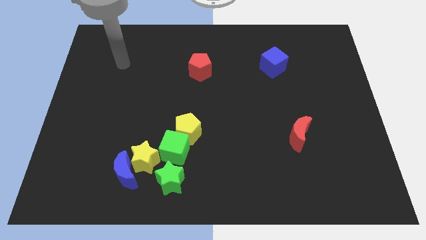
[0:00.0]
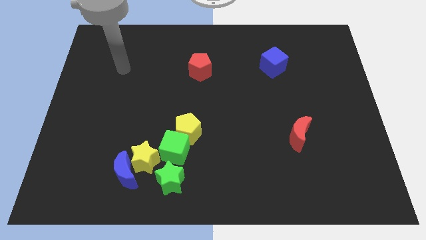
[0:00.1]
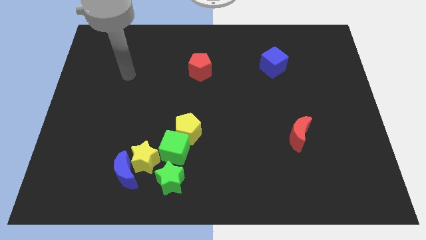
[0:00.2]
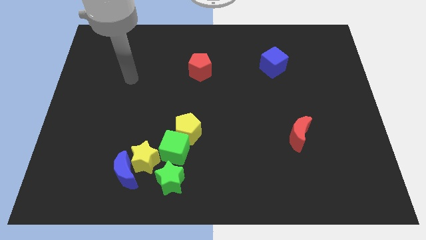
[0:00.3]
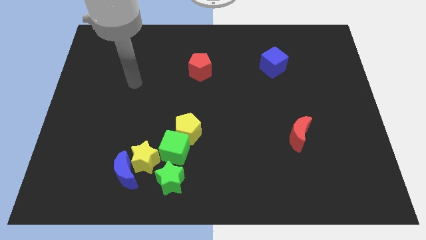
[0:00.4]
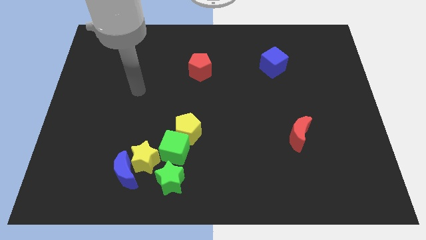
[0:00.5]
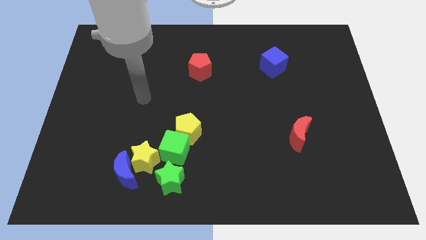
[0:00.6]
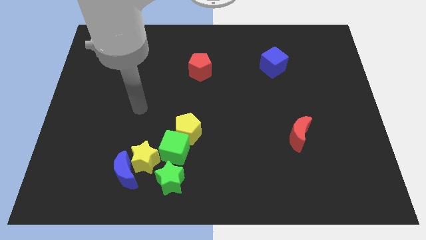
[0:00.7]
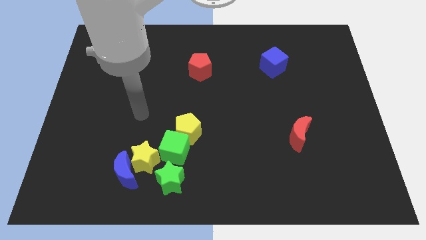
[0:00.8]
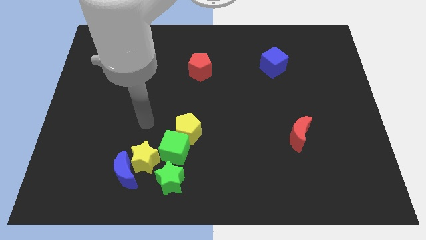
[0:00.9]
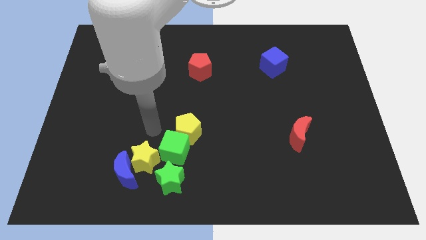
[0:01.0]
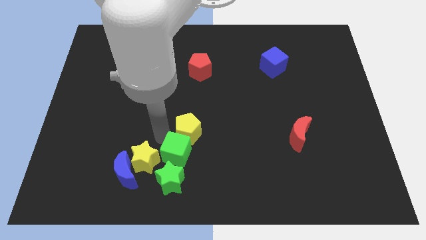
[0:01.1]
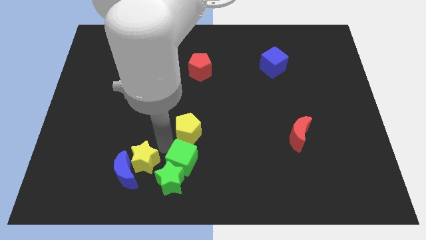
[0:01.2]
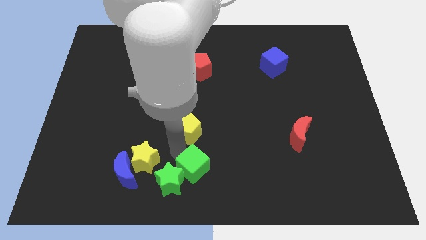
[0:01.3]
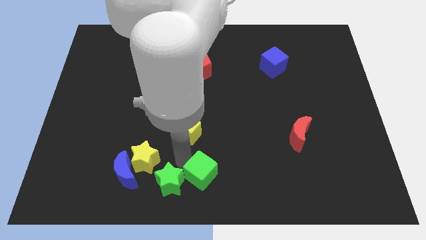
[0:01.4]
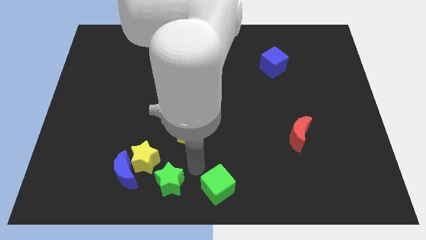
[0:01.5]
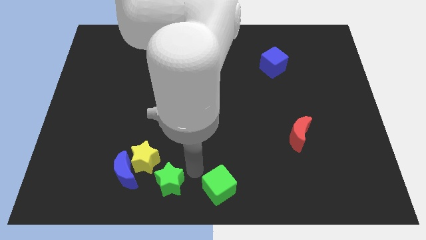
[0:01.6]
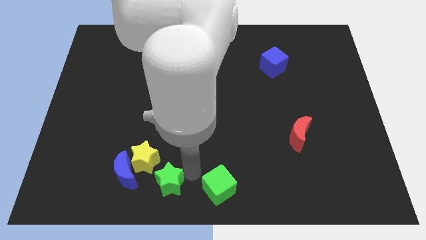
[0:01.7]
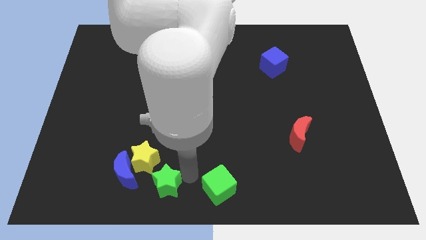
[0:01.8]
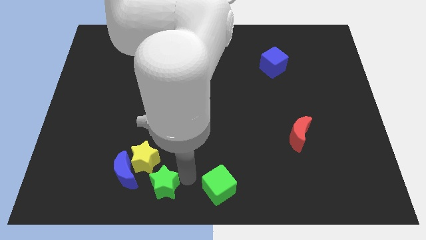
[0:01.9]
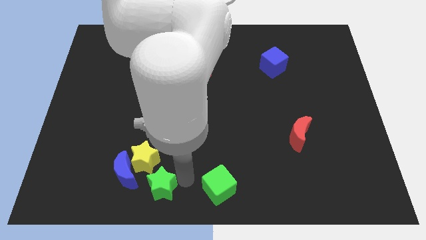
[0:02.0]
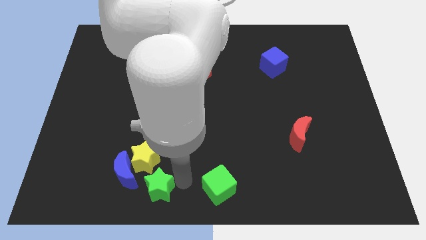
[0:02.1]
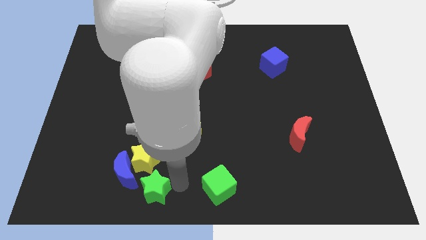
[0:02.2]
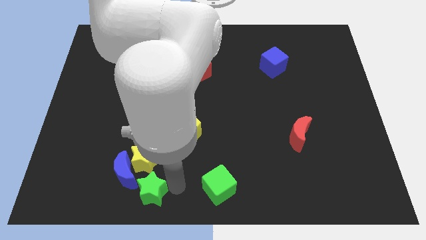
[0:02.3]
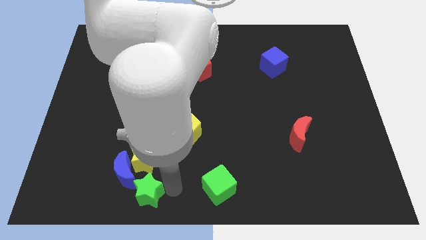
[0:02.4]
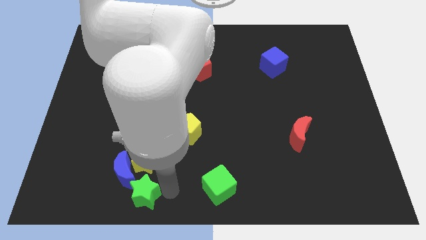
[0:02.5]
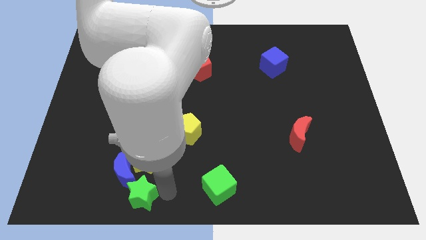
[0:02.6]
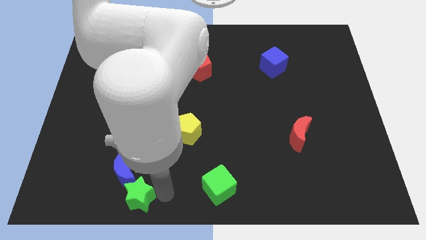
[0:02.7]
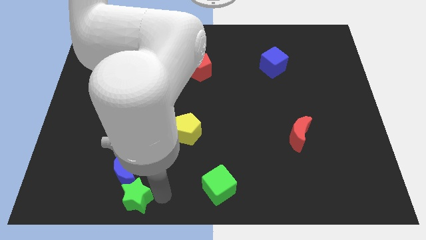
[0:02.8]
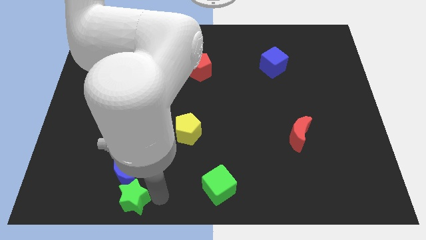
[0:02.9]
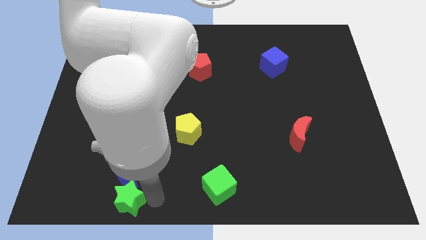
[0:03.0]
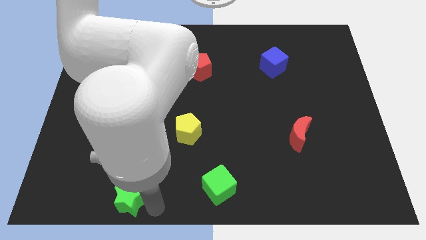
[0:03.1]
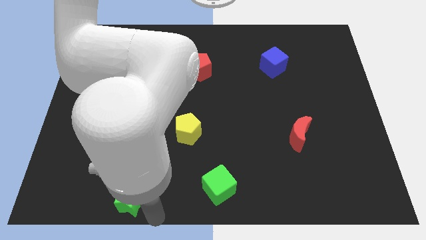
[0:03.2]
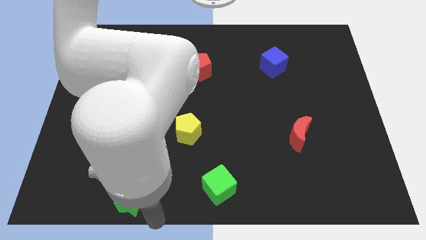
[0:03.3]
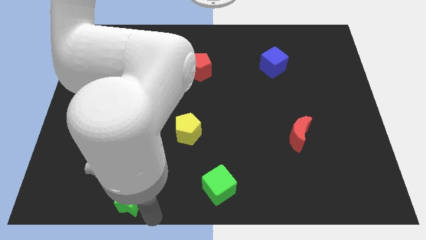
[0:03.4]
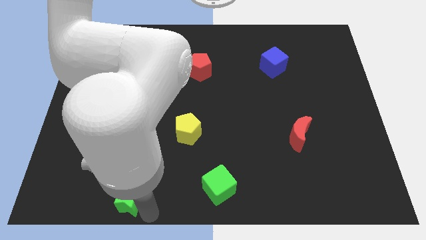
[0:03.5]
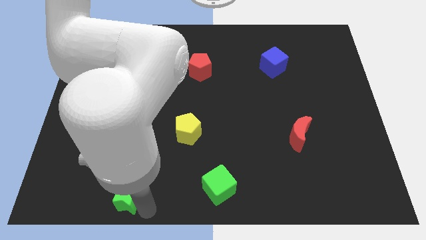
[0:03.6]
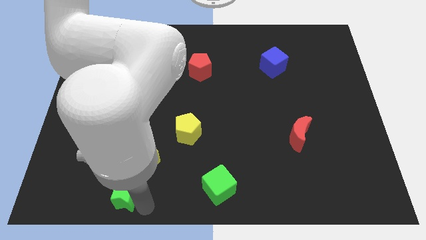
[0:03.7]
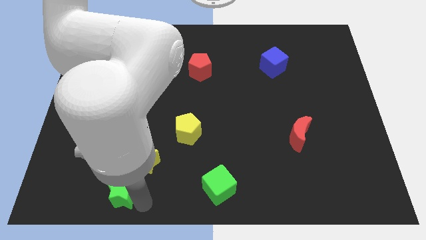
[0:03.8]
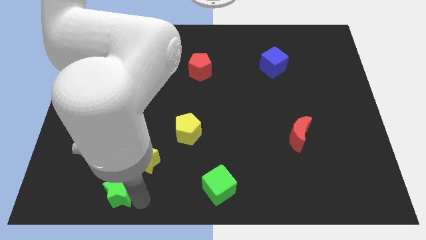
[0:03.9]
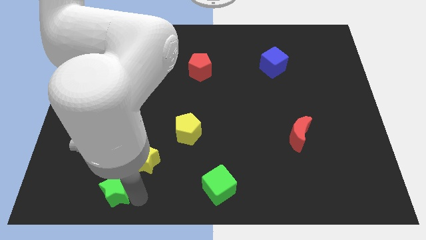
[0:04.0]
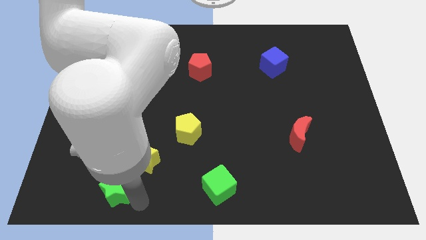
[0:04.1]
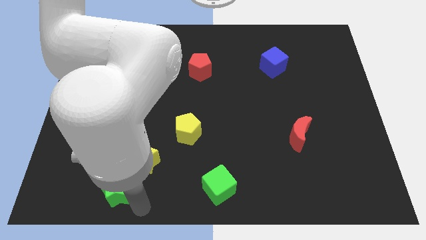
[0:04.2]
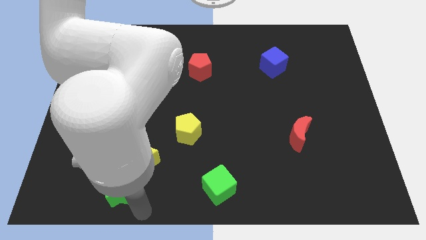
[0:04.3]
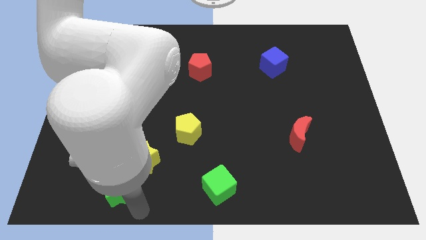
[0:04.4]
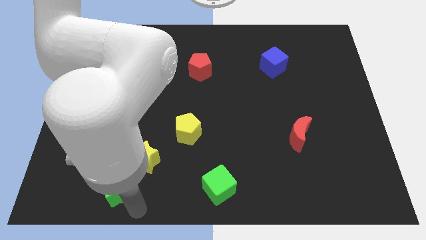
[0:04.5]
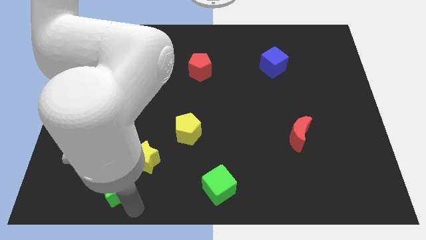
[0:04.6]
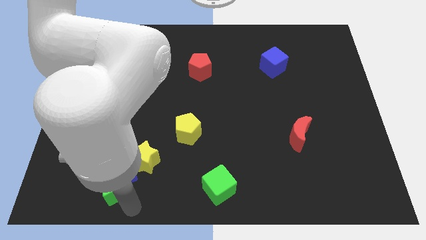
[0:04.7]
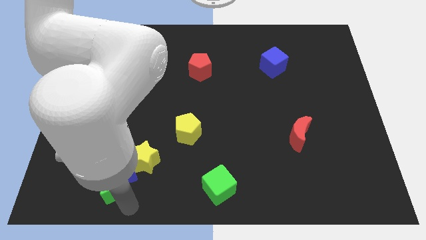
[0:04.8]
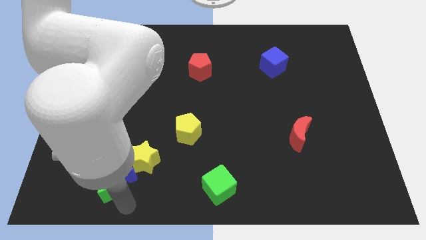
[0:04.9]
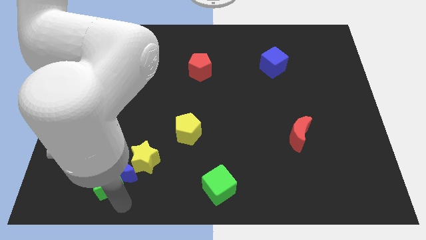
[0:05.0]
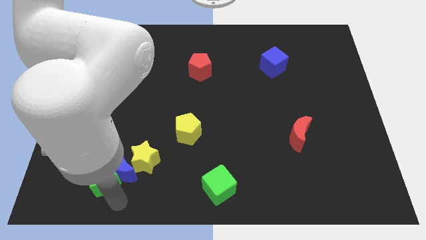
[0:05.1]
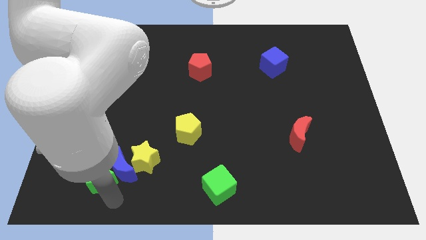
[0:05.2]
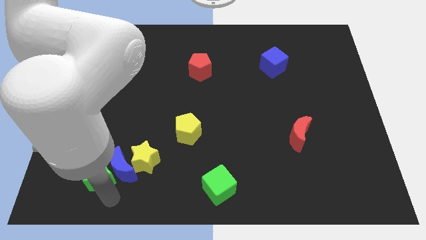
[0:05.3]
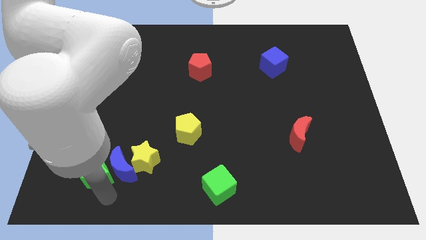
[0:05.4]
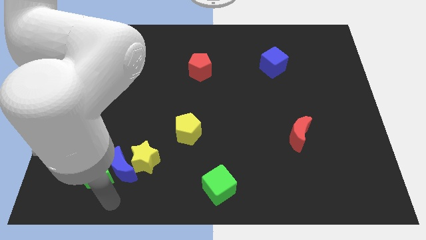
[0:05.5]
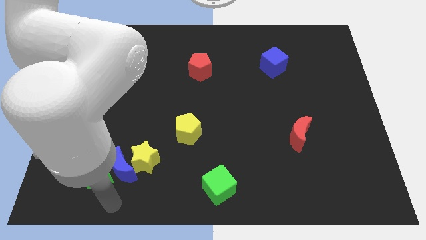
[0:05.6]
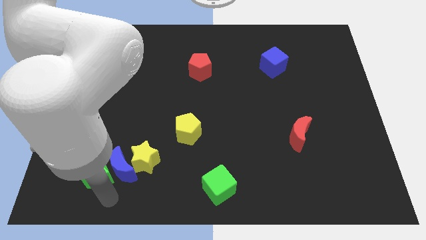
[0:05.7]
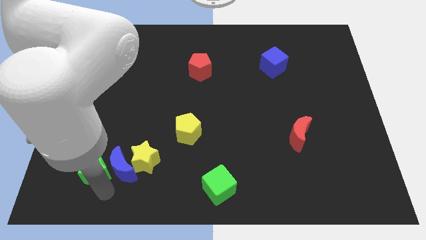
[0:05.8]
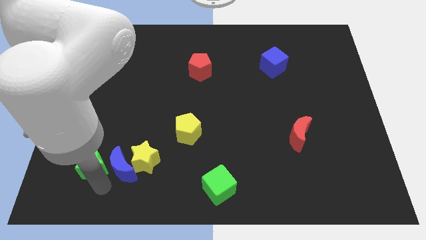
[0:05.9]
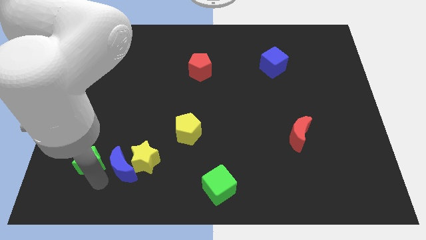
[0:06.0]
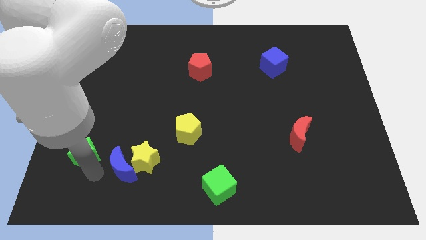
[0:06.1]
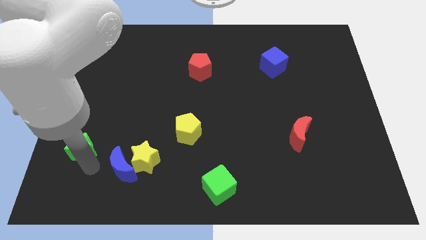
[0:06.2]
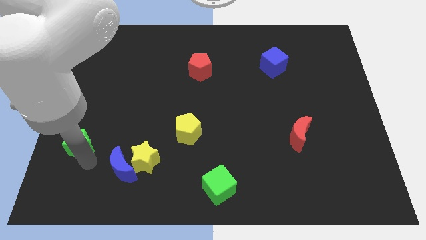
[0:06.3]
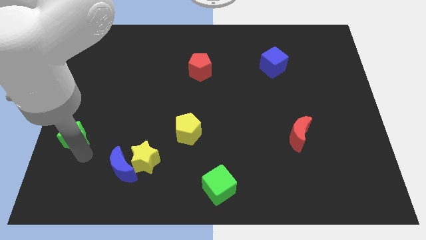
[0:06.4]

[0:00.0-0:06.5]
put the green star to the left side
